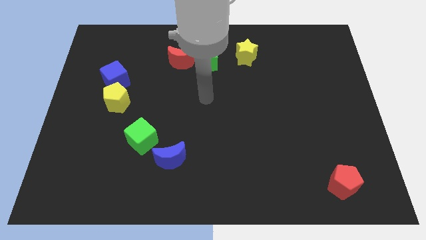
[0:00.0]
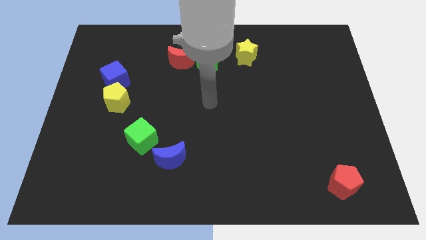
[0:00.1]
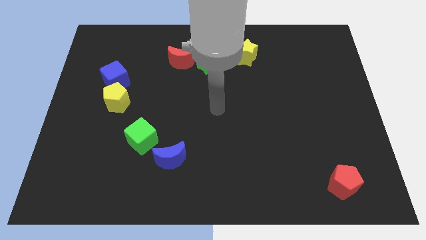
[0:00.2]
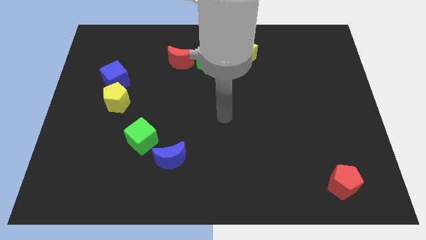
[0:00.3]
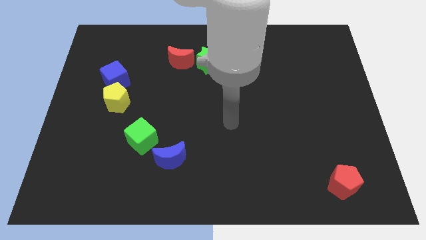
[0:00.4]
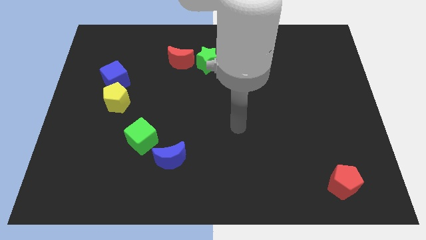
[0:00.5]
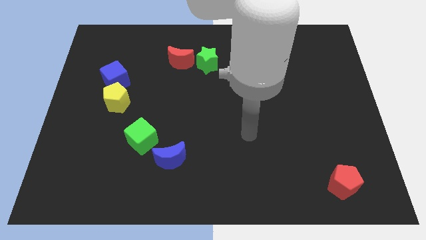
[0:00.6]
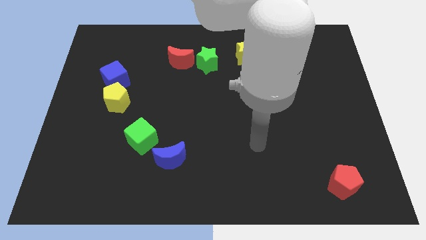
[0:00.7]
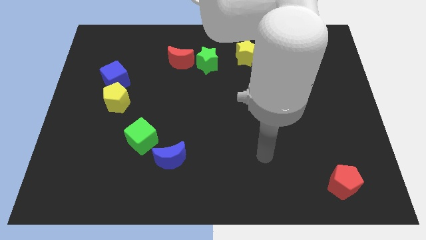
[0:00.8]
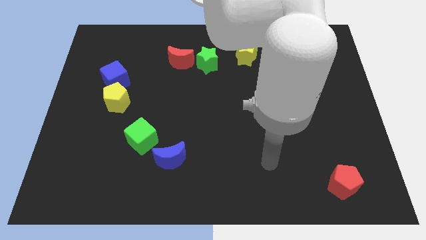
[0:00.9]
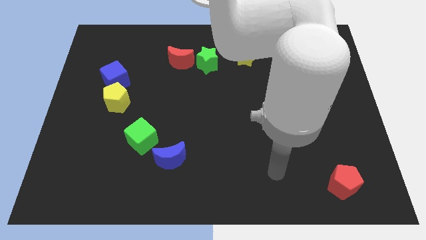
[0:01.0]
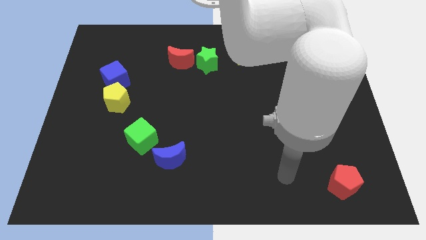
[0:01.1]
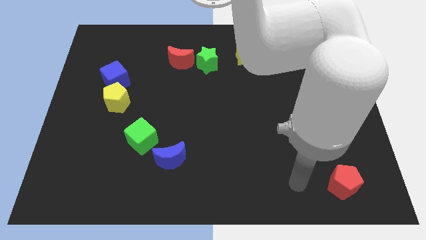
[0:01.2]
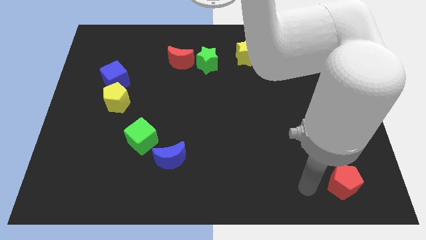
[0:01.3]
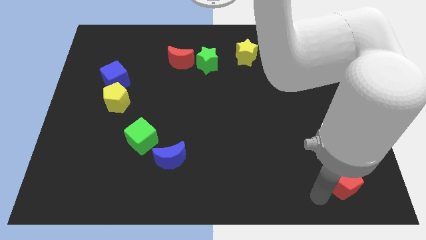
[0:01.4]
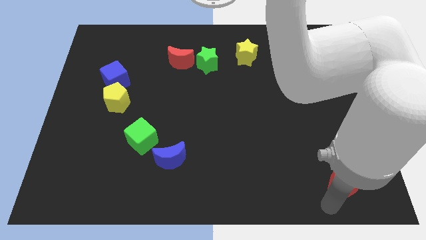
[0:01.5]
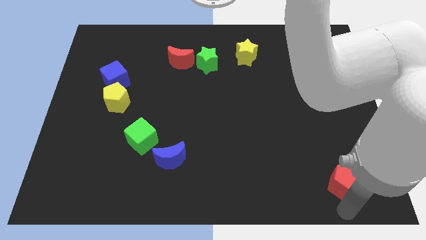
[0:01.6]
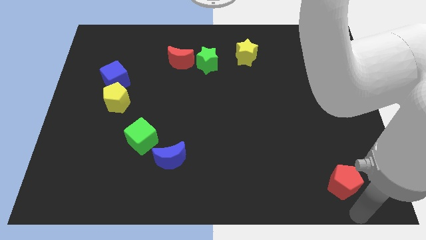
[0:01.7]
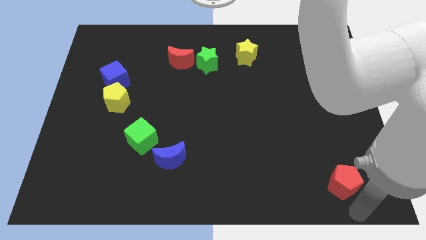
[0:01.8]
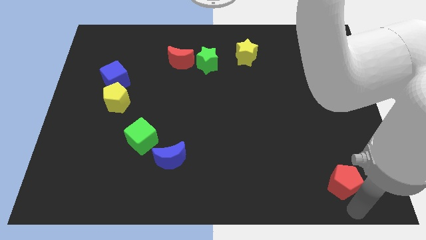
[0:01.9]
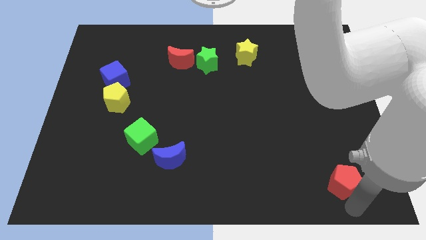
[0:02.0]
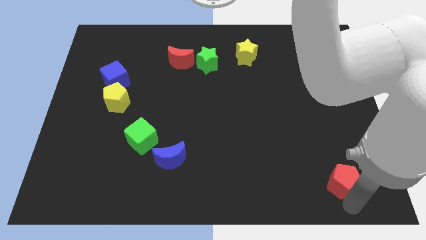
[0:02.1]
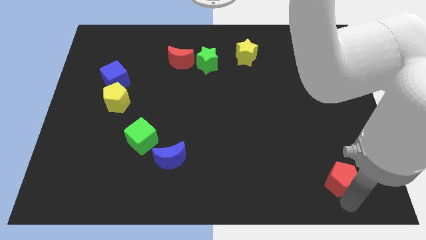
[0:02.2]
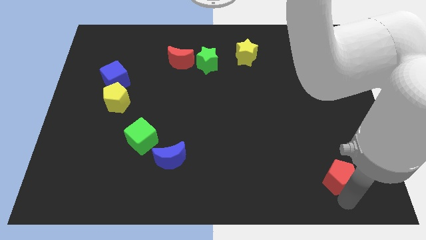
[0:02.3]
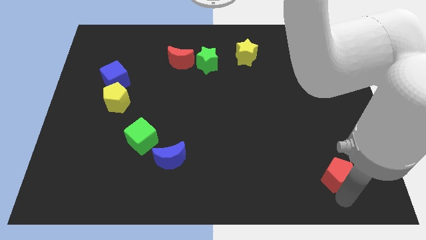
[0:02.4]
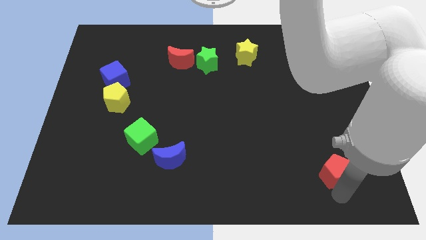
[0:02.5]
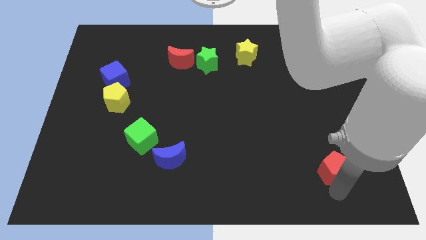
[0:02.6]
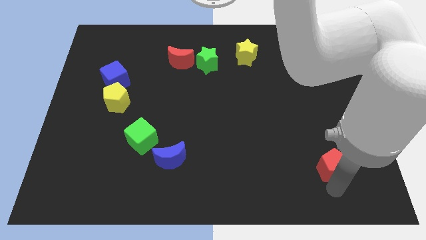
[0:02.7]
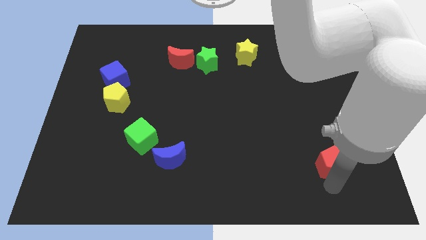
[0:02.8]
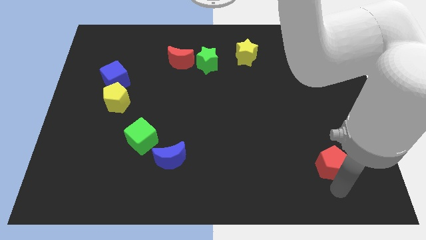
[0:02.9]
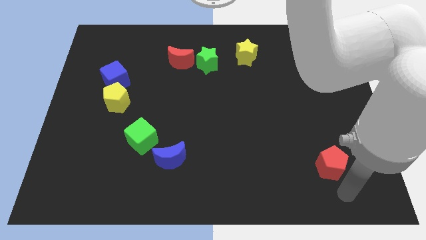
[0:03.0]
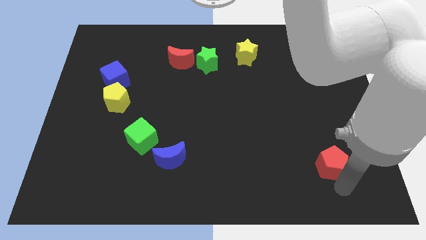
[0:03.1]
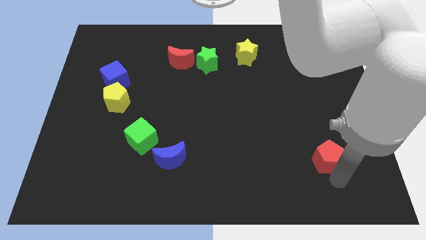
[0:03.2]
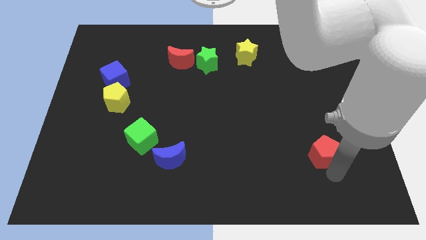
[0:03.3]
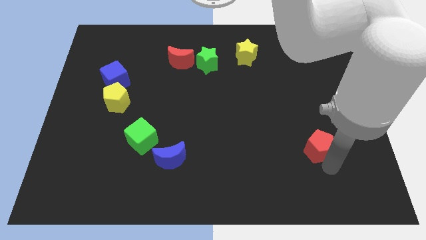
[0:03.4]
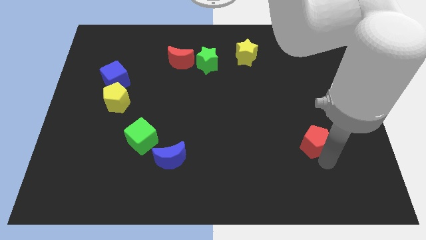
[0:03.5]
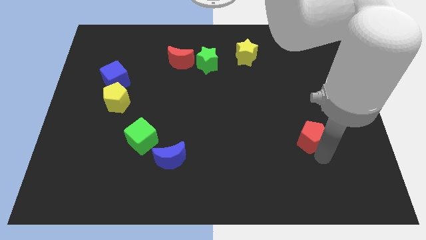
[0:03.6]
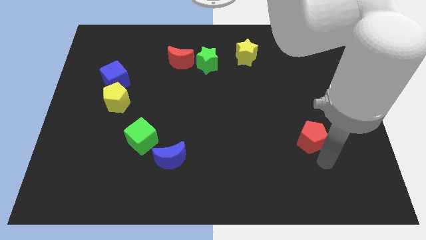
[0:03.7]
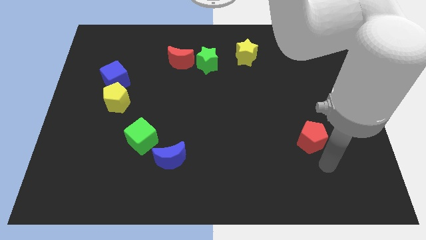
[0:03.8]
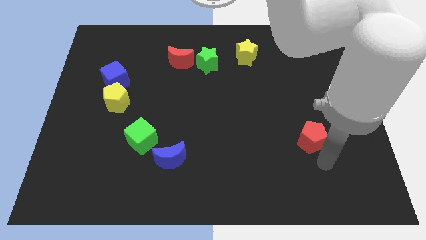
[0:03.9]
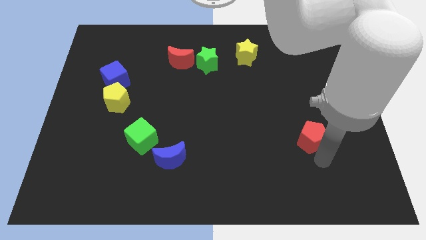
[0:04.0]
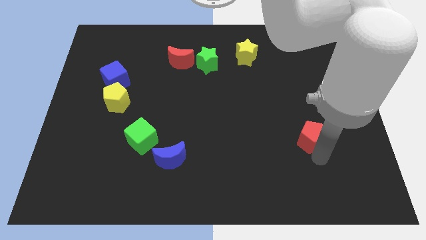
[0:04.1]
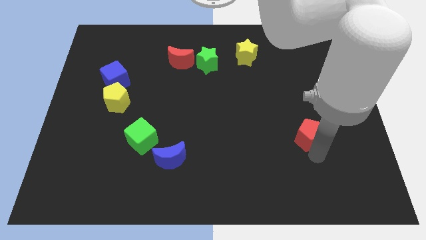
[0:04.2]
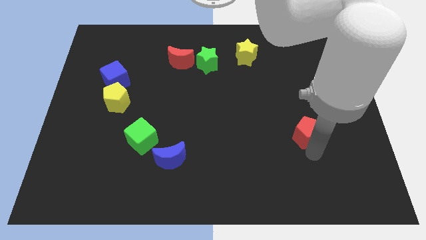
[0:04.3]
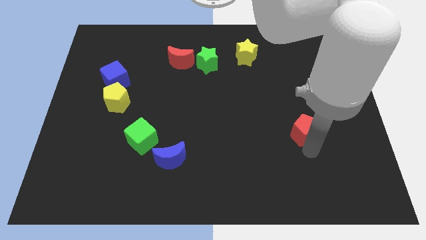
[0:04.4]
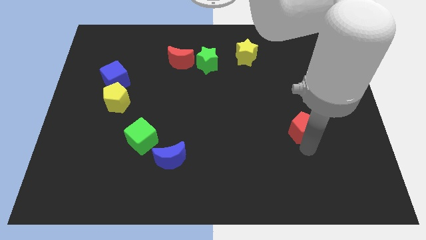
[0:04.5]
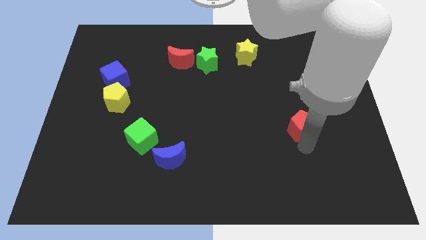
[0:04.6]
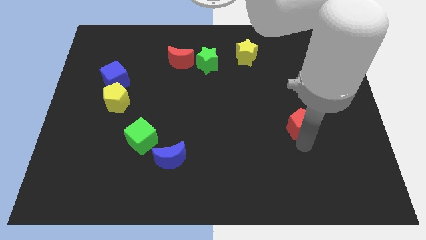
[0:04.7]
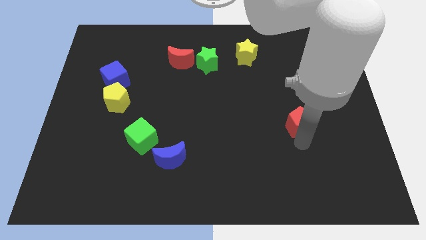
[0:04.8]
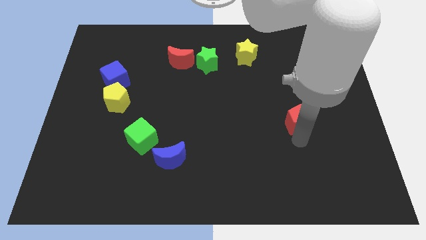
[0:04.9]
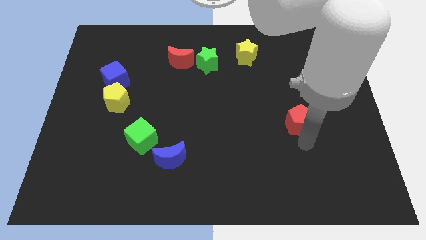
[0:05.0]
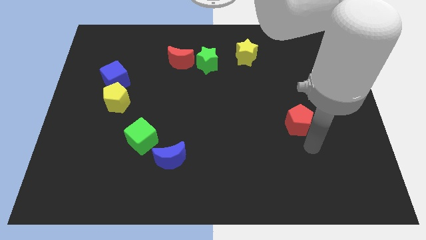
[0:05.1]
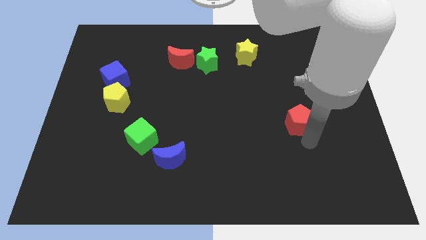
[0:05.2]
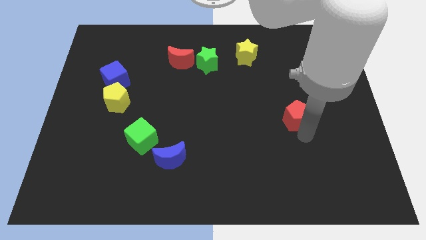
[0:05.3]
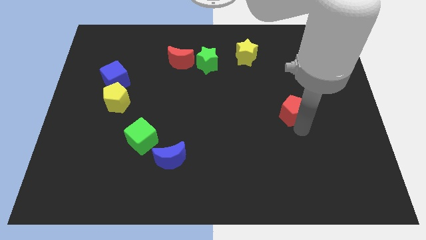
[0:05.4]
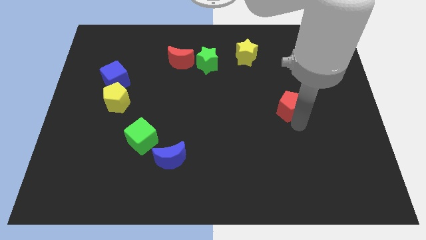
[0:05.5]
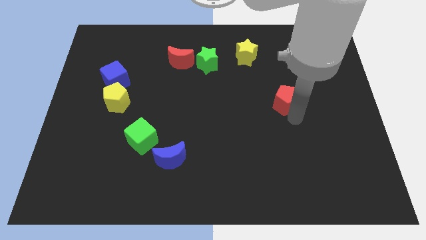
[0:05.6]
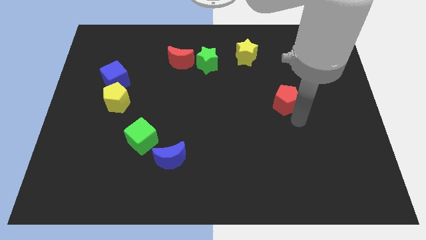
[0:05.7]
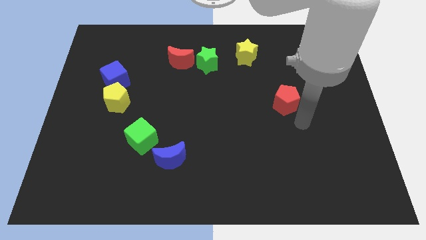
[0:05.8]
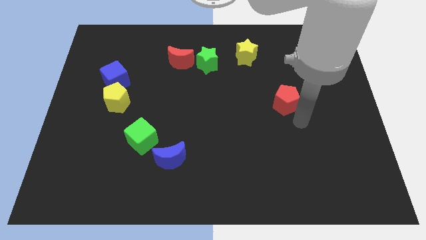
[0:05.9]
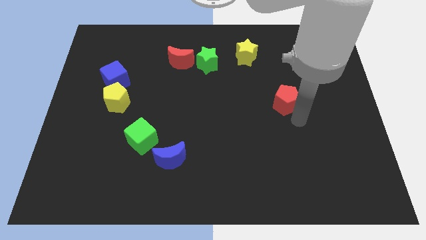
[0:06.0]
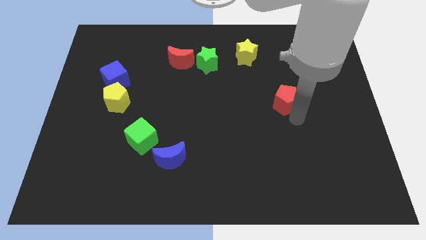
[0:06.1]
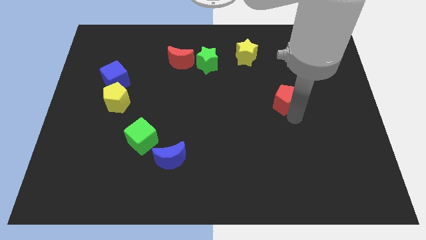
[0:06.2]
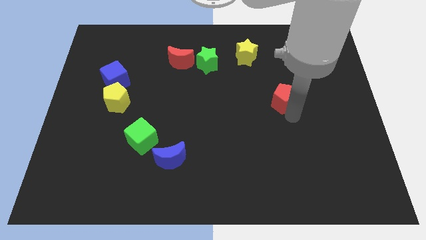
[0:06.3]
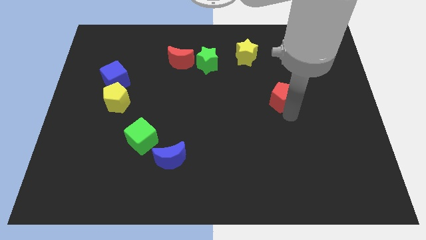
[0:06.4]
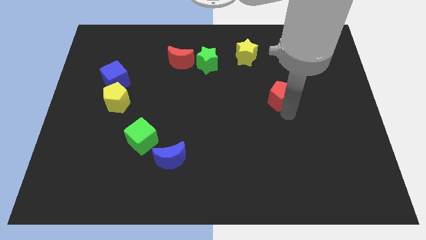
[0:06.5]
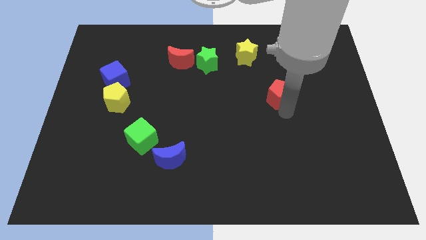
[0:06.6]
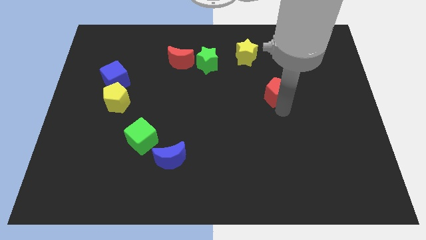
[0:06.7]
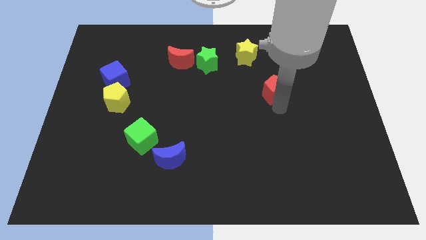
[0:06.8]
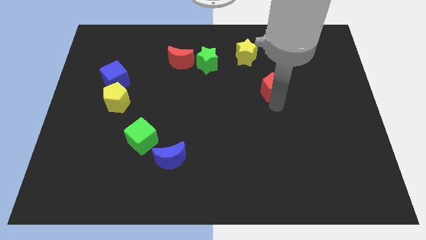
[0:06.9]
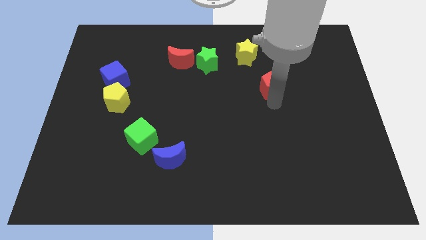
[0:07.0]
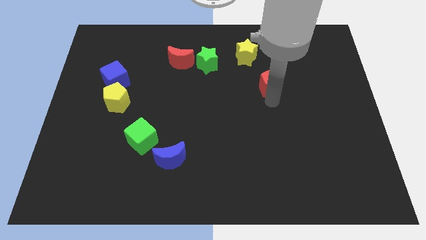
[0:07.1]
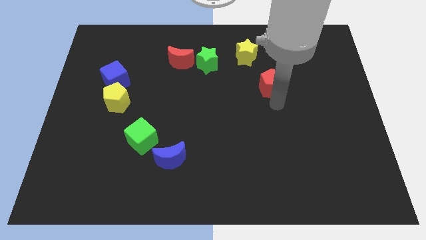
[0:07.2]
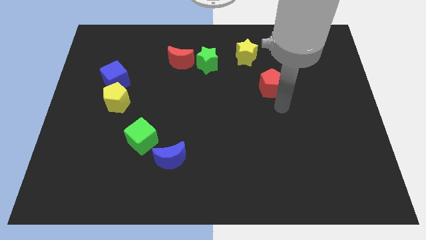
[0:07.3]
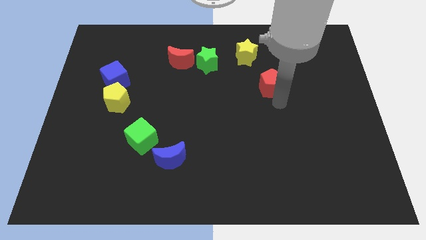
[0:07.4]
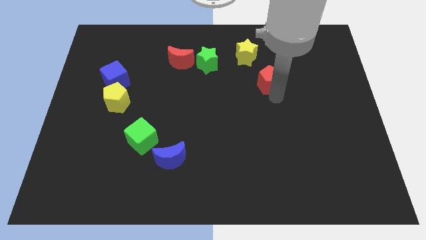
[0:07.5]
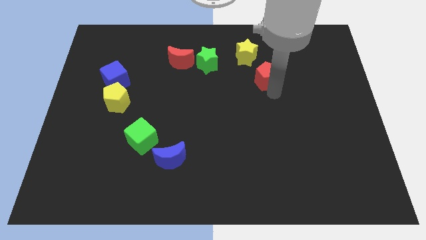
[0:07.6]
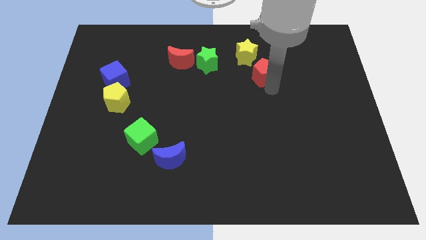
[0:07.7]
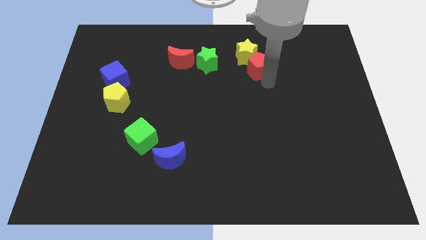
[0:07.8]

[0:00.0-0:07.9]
put the red pentagon to the yellow star
